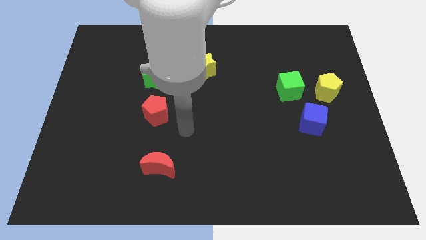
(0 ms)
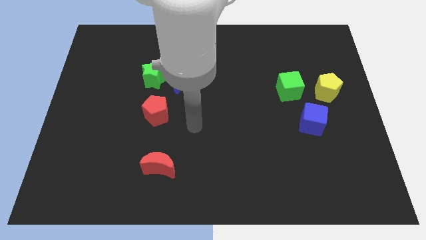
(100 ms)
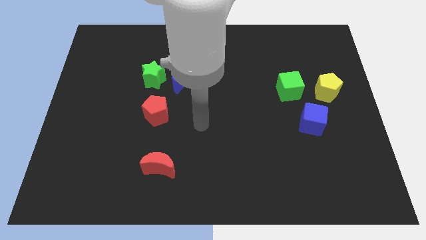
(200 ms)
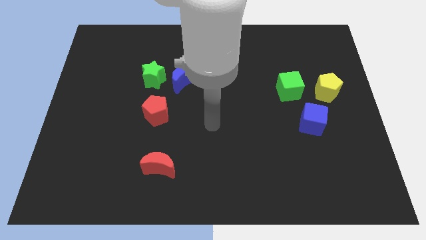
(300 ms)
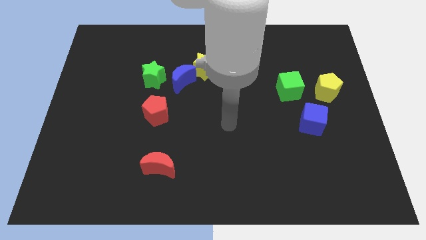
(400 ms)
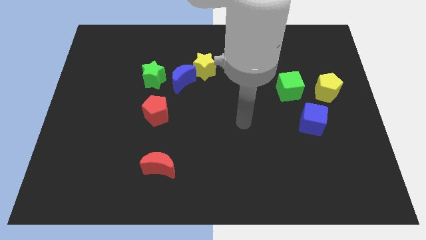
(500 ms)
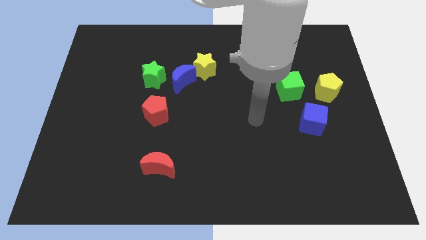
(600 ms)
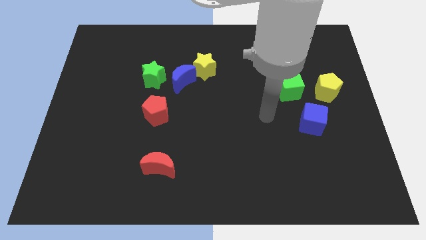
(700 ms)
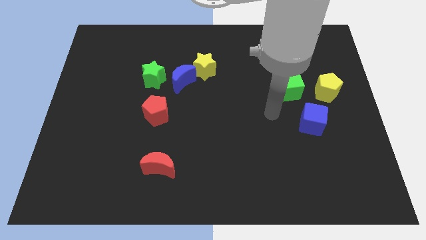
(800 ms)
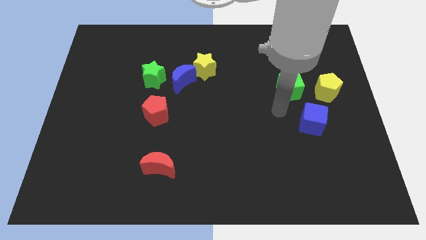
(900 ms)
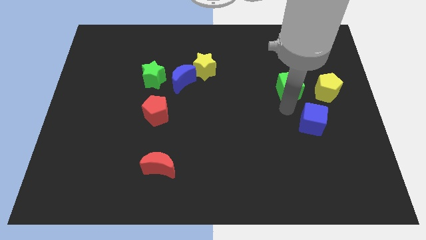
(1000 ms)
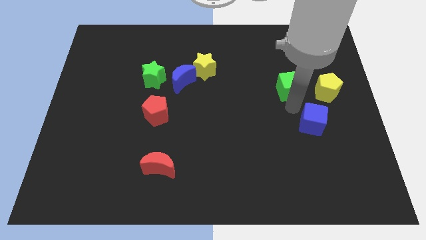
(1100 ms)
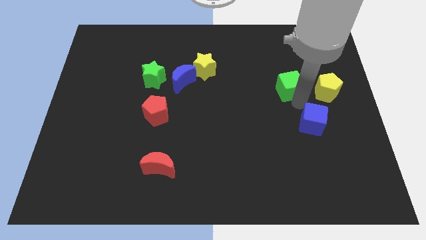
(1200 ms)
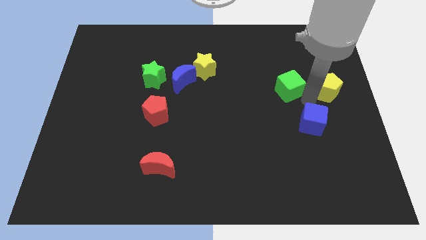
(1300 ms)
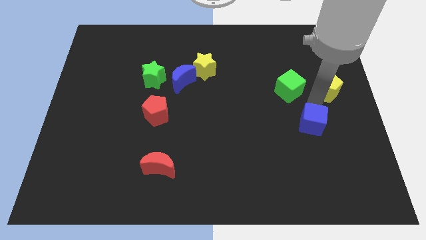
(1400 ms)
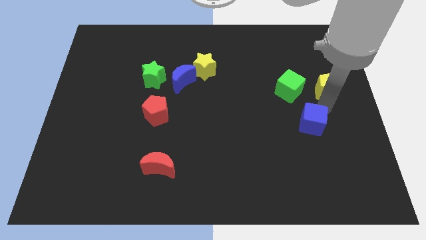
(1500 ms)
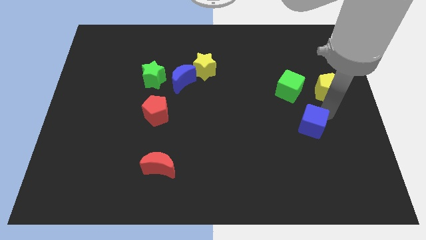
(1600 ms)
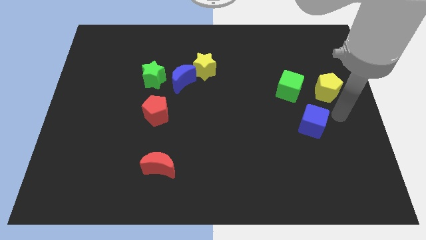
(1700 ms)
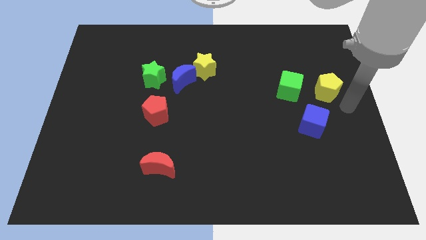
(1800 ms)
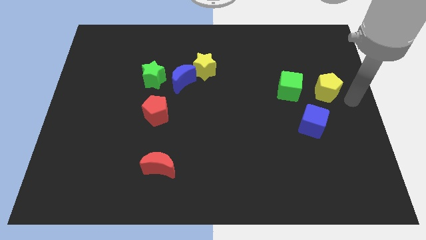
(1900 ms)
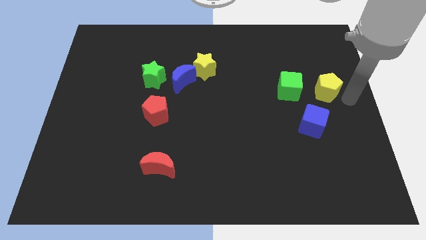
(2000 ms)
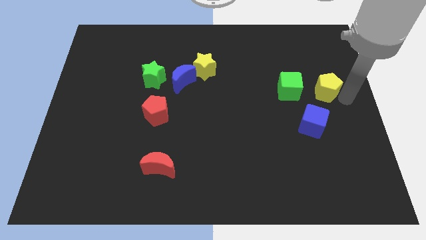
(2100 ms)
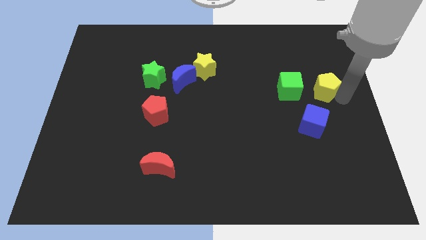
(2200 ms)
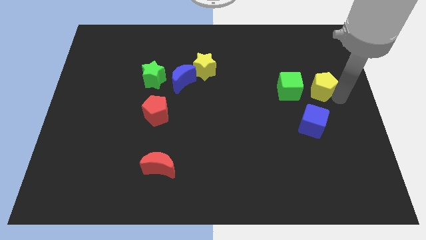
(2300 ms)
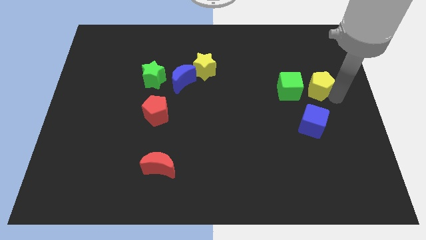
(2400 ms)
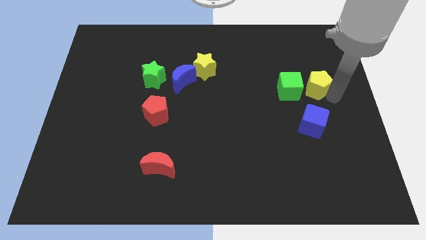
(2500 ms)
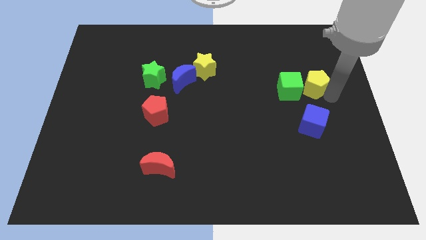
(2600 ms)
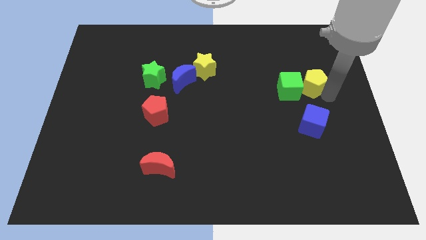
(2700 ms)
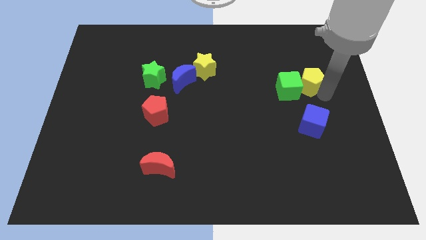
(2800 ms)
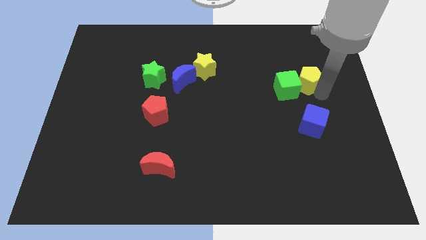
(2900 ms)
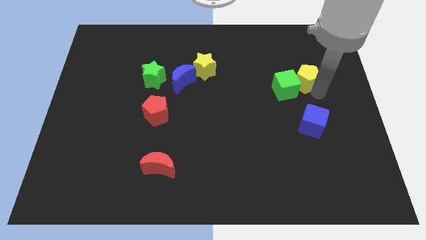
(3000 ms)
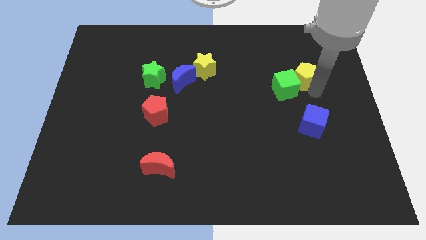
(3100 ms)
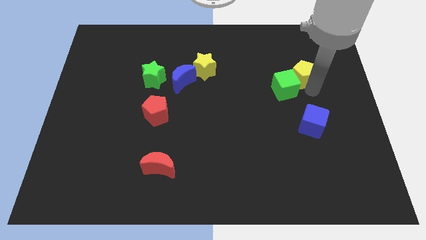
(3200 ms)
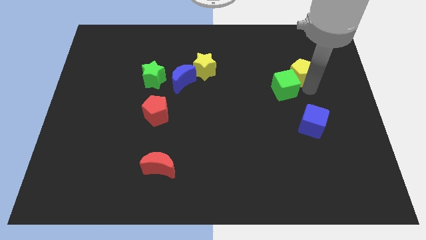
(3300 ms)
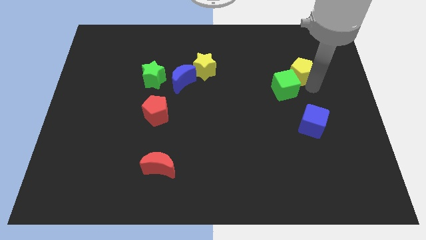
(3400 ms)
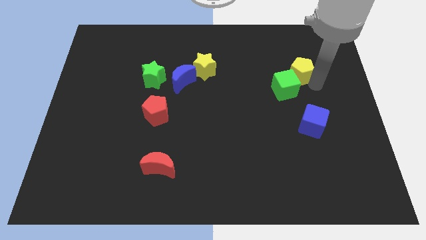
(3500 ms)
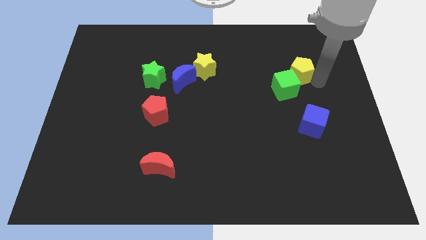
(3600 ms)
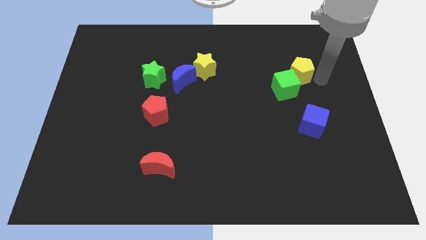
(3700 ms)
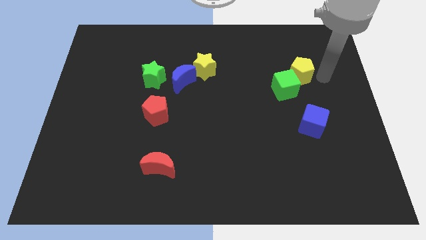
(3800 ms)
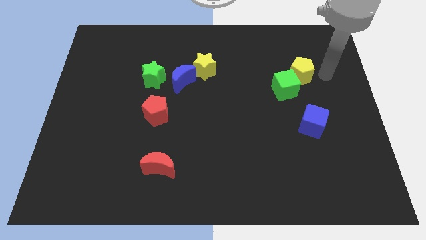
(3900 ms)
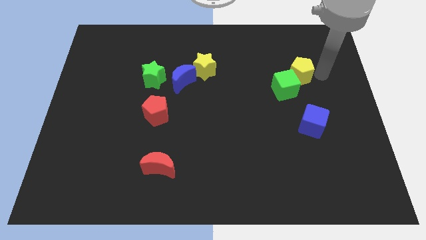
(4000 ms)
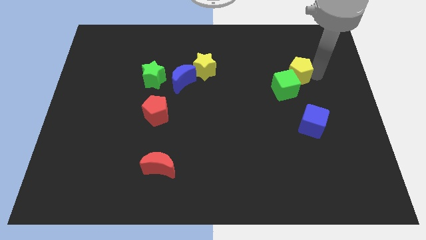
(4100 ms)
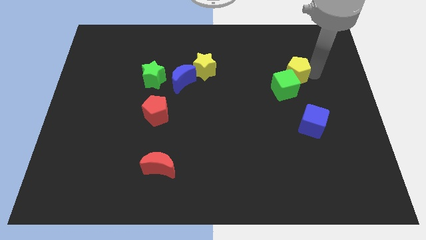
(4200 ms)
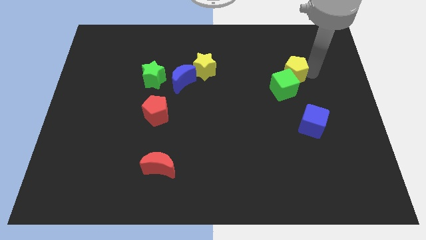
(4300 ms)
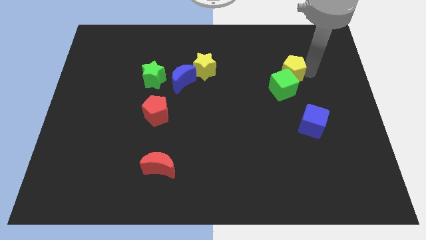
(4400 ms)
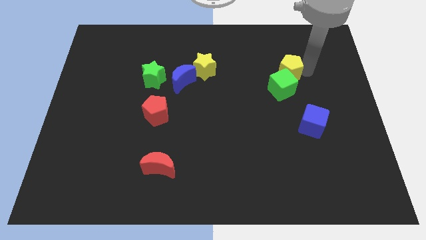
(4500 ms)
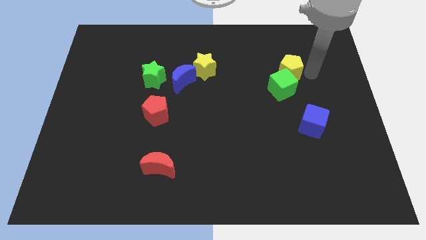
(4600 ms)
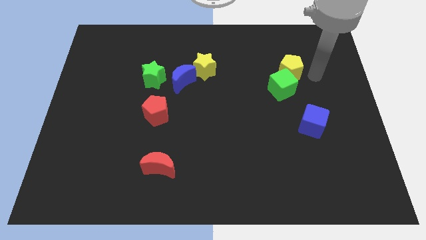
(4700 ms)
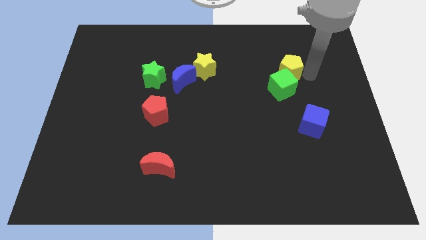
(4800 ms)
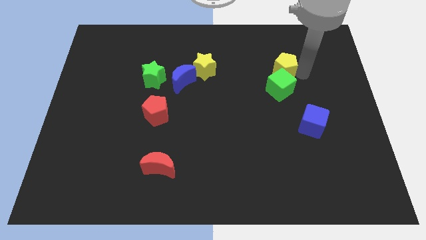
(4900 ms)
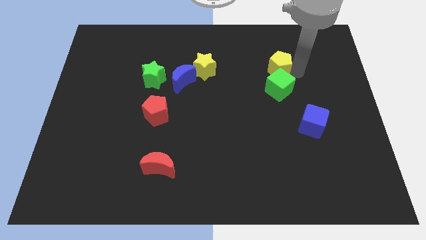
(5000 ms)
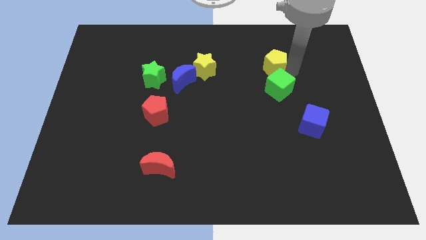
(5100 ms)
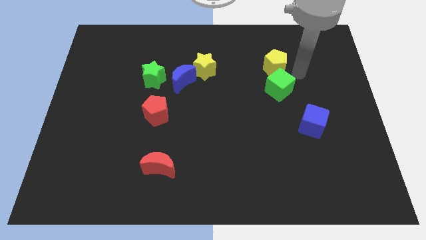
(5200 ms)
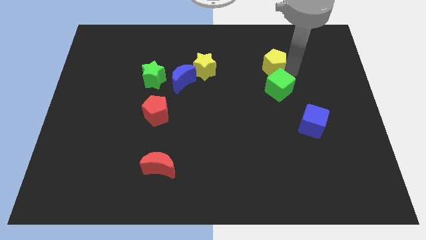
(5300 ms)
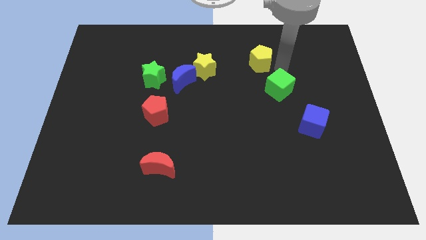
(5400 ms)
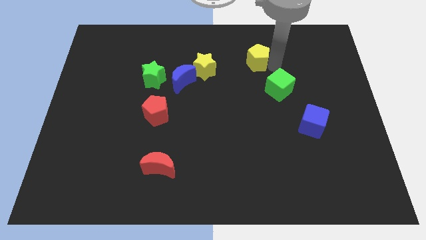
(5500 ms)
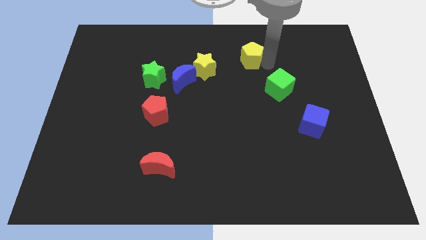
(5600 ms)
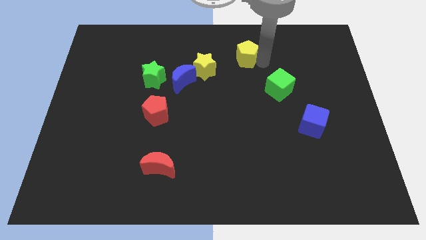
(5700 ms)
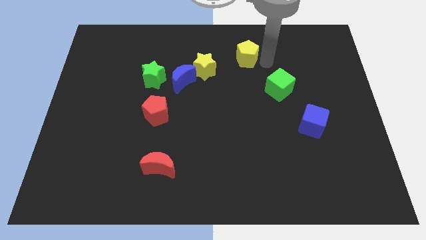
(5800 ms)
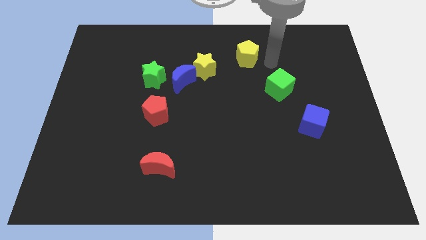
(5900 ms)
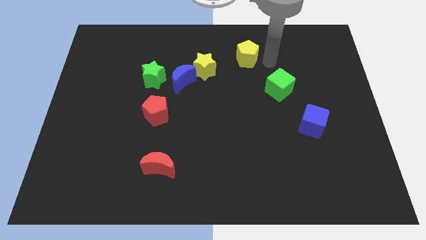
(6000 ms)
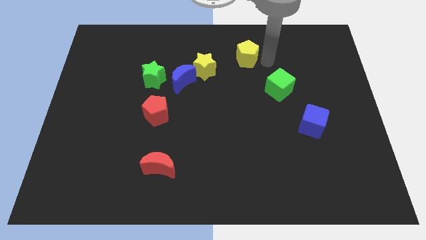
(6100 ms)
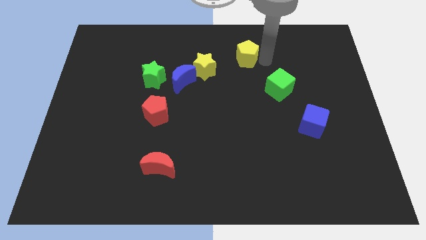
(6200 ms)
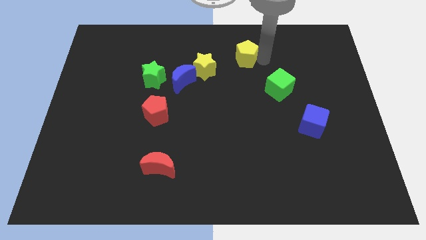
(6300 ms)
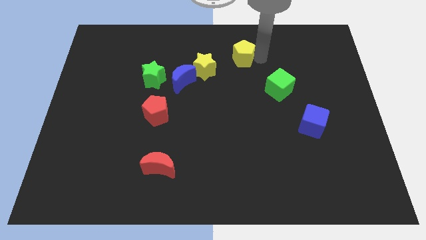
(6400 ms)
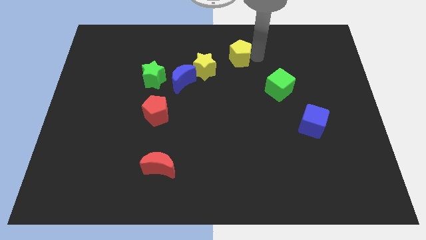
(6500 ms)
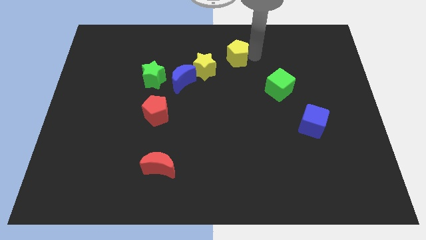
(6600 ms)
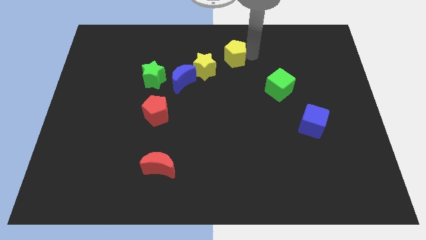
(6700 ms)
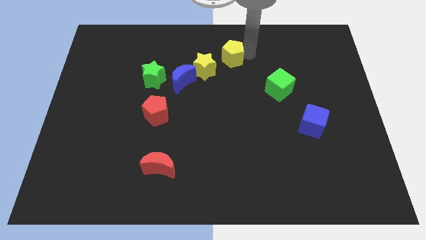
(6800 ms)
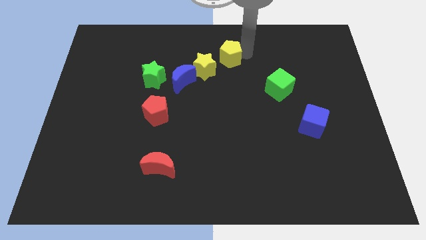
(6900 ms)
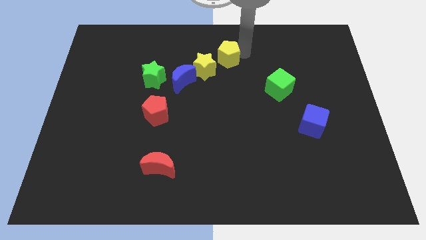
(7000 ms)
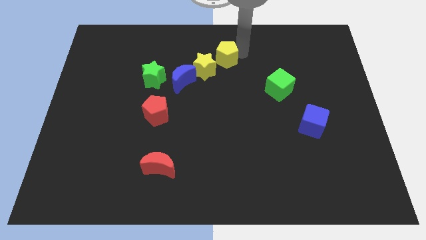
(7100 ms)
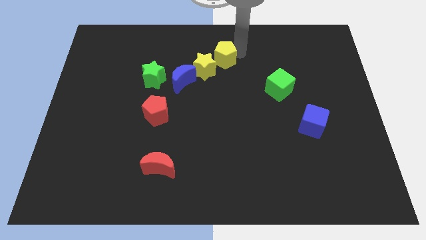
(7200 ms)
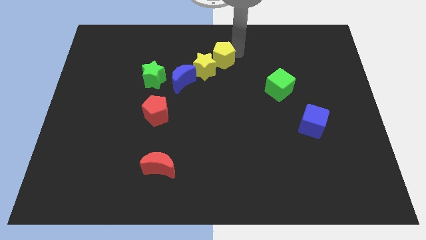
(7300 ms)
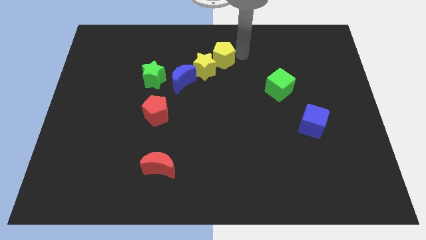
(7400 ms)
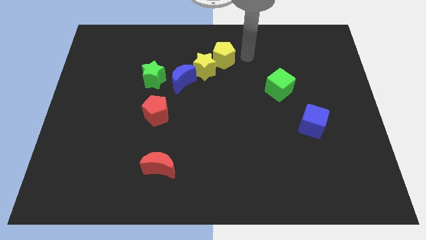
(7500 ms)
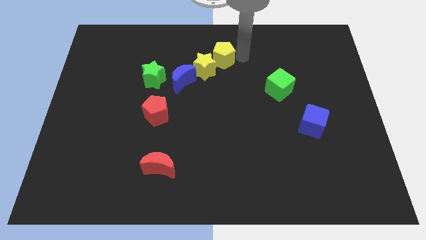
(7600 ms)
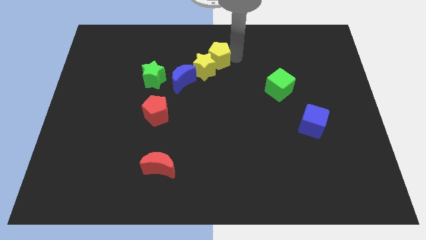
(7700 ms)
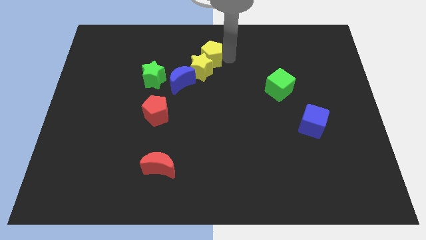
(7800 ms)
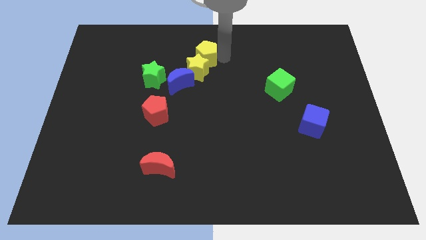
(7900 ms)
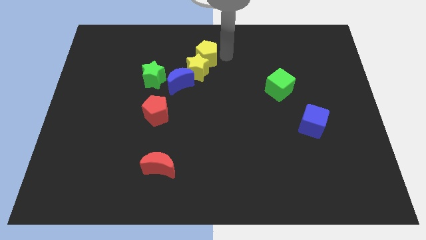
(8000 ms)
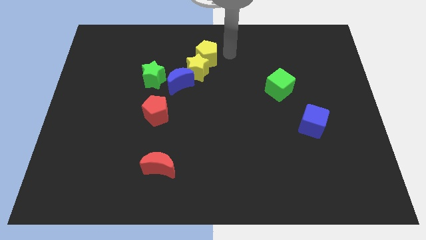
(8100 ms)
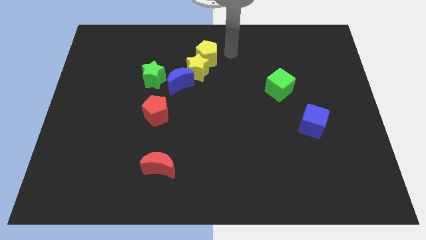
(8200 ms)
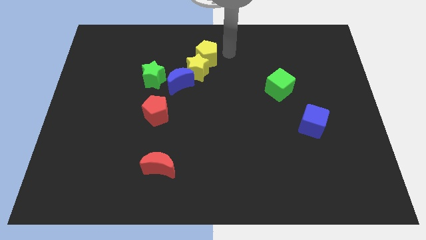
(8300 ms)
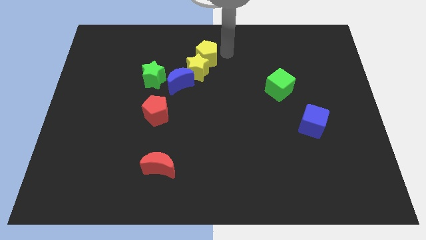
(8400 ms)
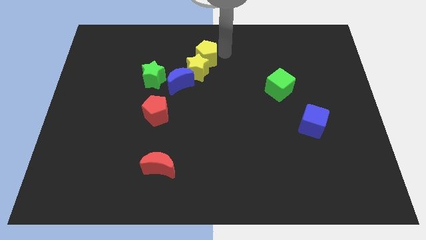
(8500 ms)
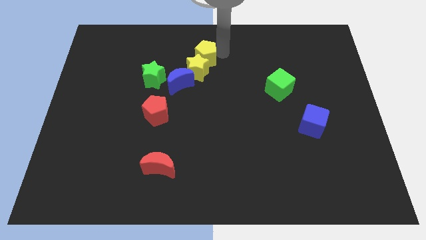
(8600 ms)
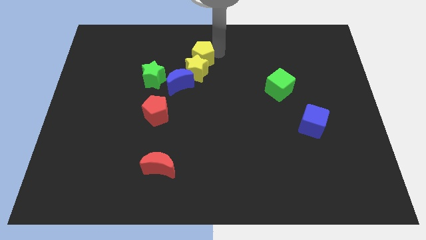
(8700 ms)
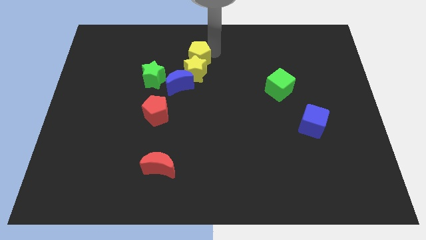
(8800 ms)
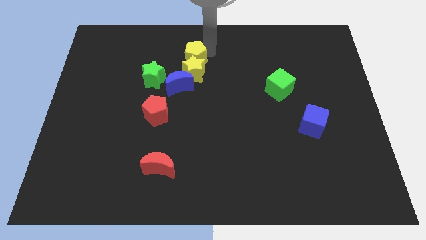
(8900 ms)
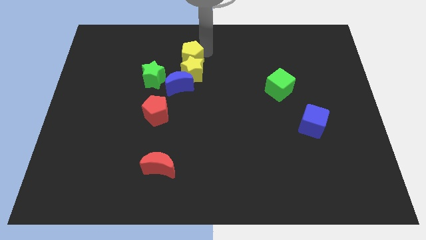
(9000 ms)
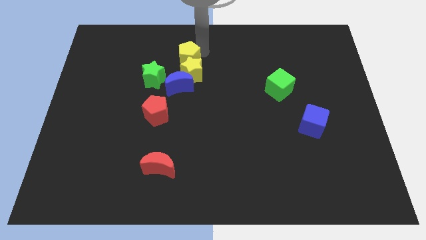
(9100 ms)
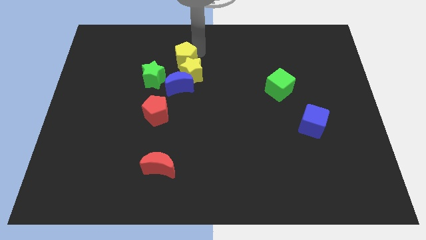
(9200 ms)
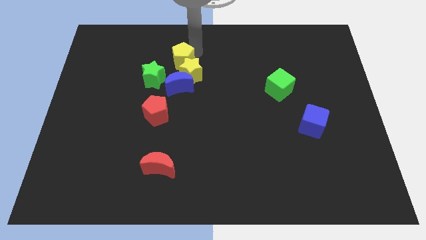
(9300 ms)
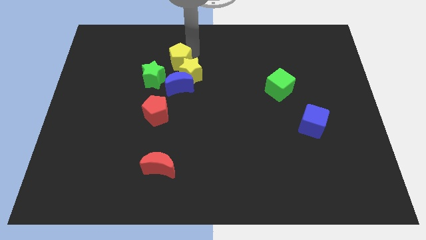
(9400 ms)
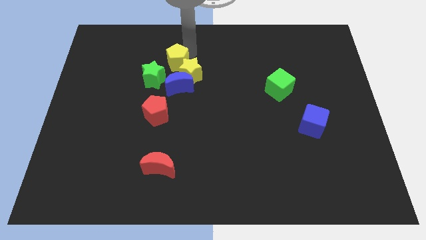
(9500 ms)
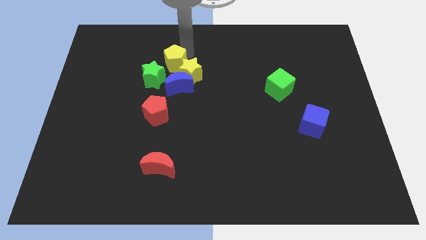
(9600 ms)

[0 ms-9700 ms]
move the yellow pentagon to the top left side of the blue moon
